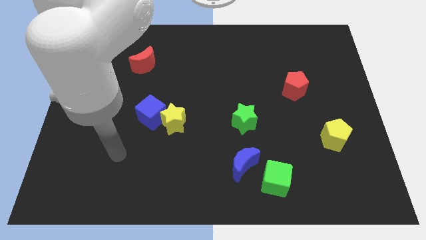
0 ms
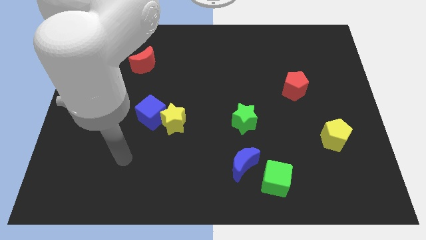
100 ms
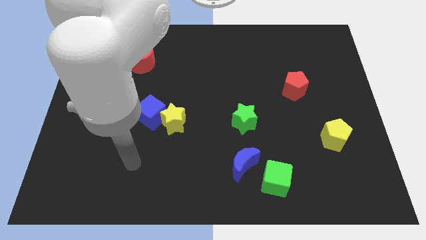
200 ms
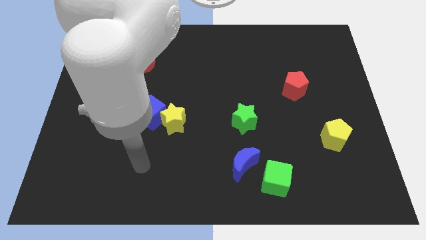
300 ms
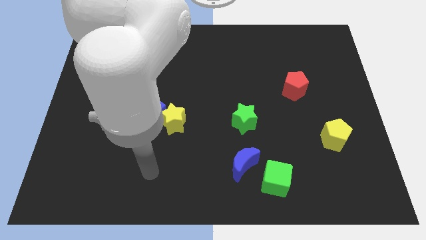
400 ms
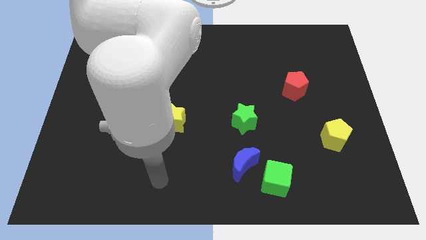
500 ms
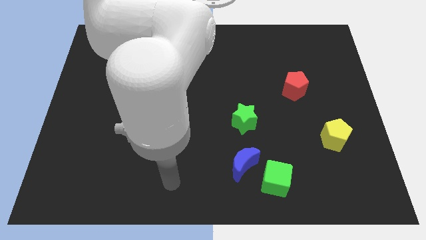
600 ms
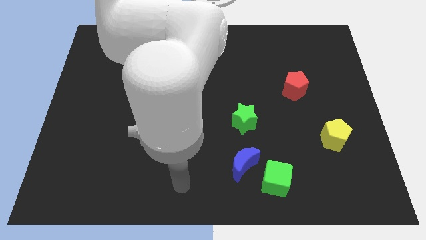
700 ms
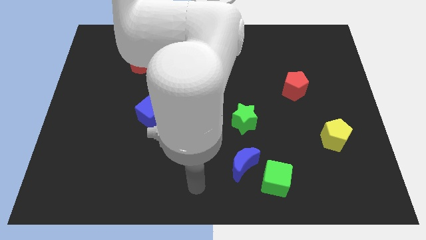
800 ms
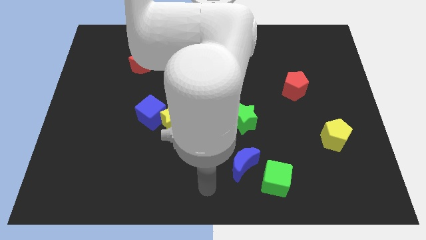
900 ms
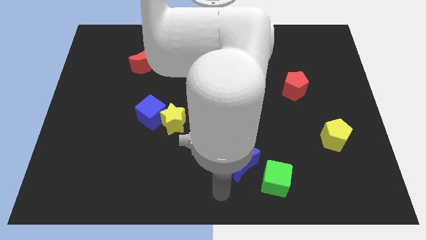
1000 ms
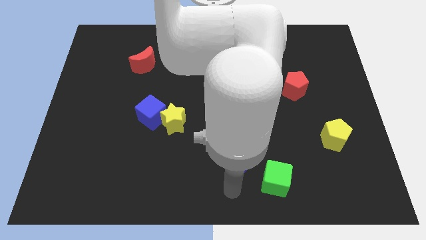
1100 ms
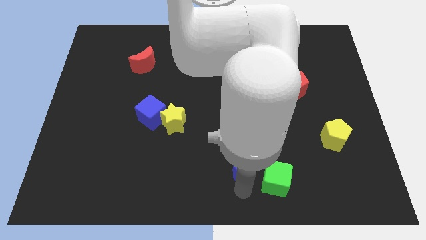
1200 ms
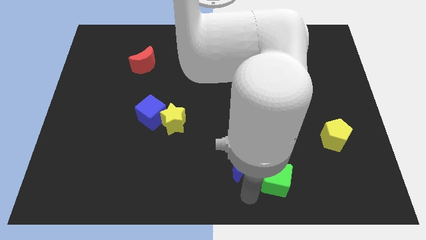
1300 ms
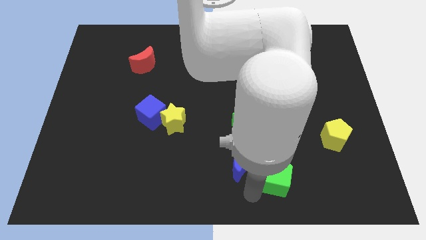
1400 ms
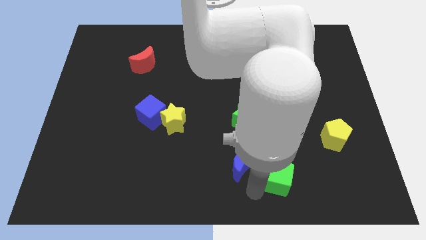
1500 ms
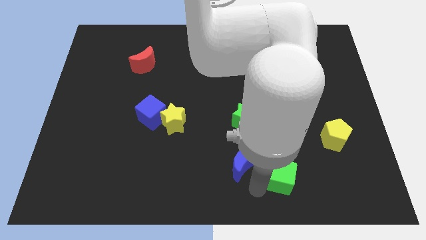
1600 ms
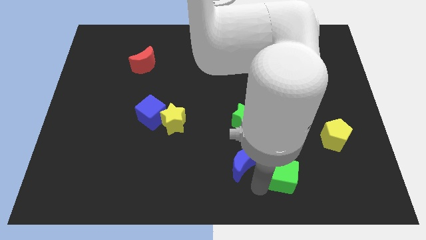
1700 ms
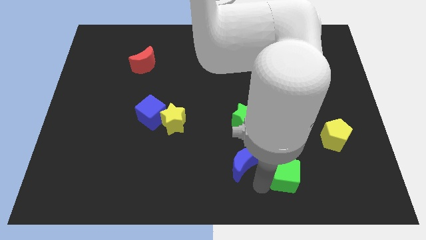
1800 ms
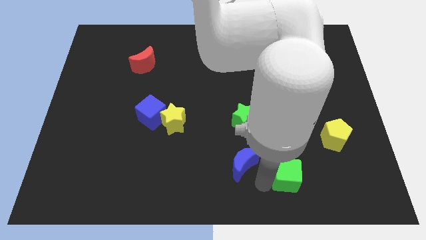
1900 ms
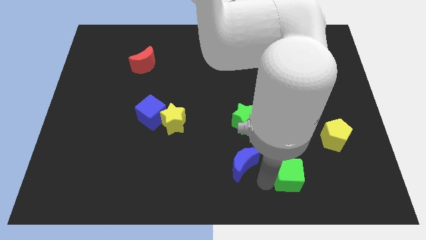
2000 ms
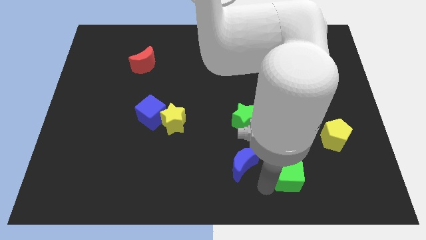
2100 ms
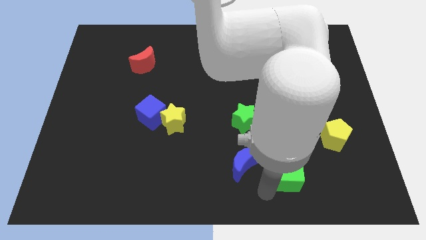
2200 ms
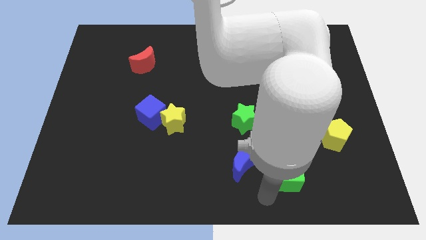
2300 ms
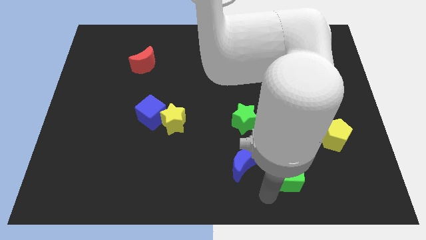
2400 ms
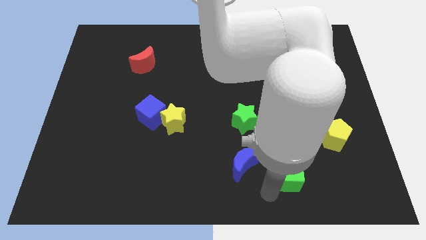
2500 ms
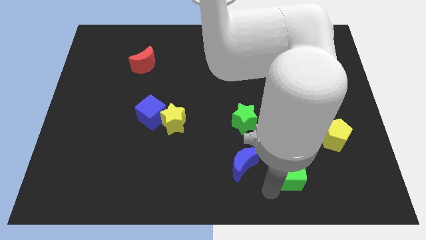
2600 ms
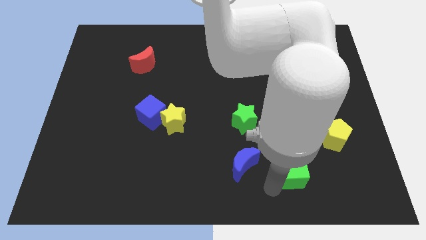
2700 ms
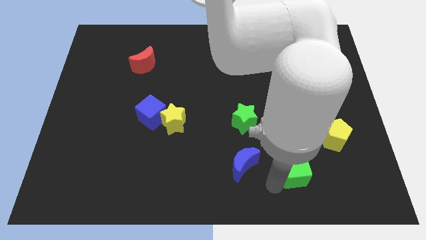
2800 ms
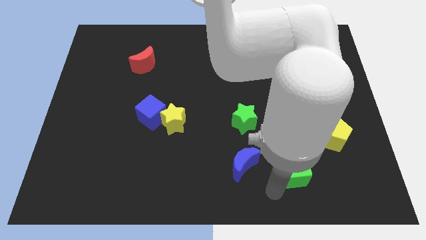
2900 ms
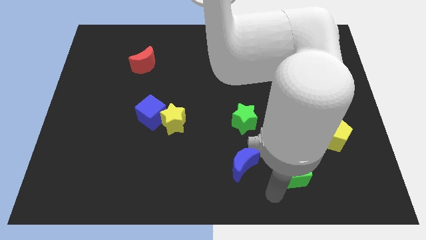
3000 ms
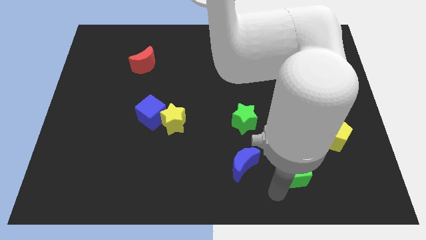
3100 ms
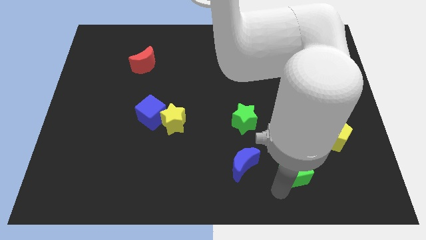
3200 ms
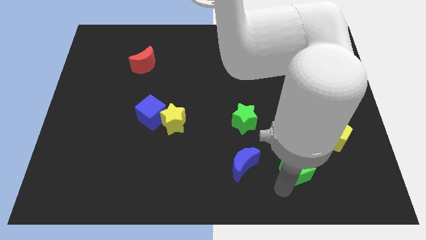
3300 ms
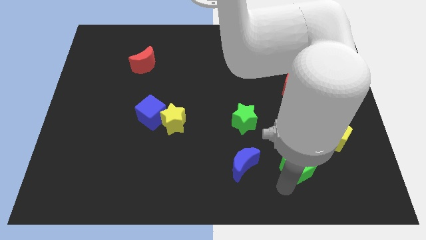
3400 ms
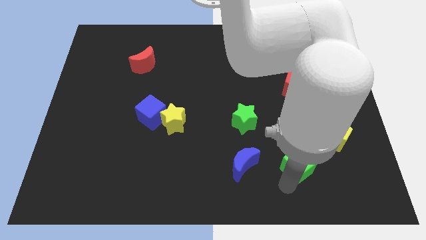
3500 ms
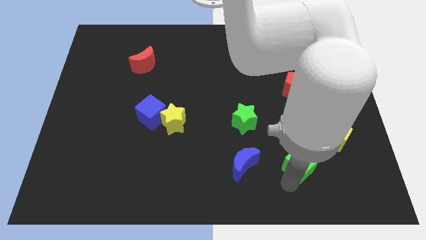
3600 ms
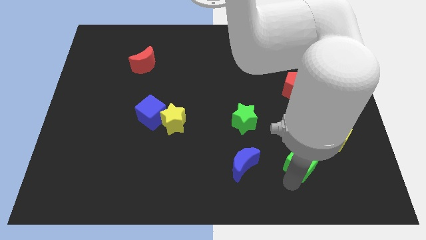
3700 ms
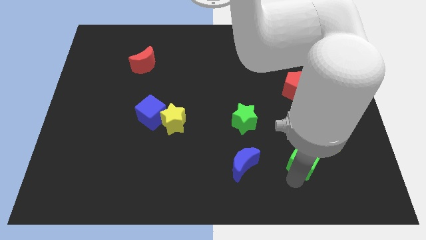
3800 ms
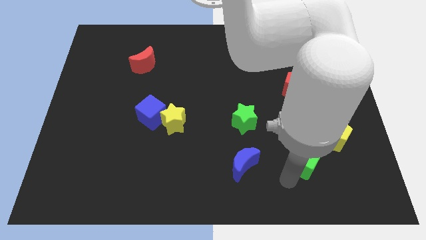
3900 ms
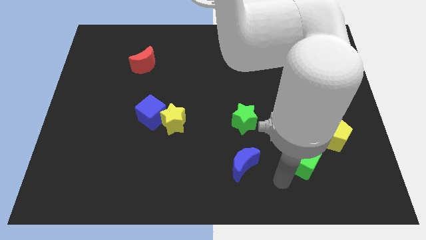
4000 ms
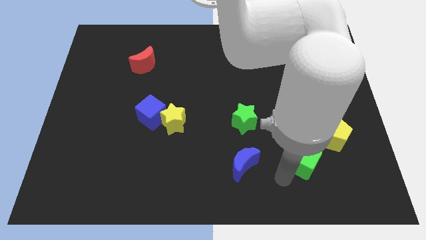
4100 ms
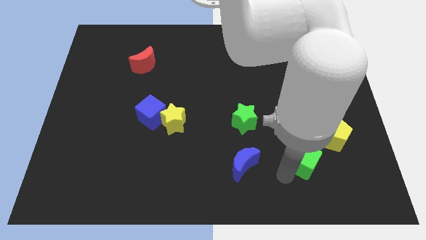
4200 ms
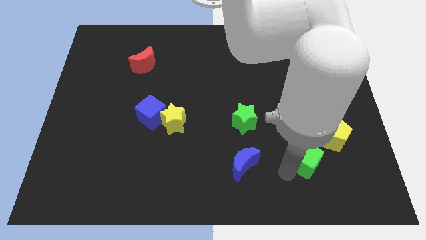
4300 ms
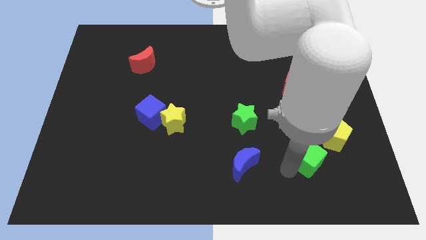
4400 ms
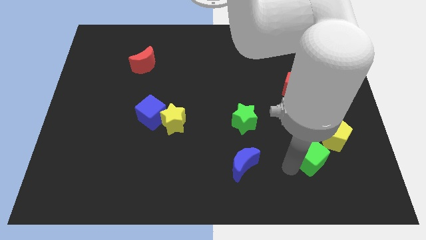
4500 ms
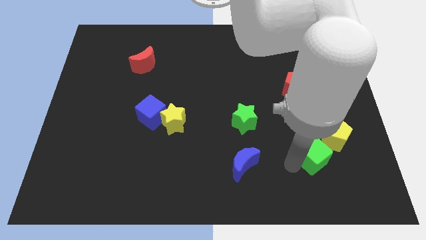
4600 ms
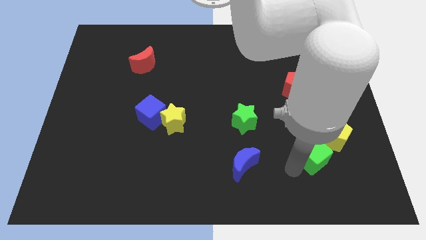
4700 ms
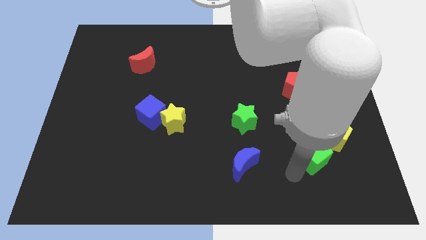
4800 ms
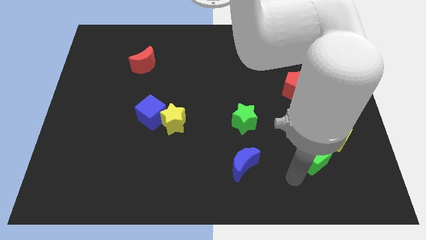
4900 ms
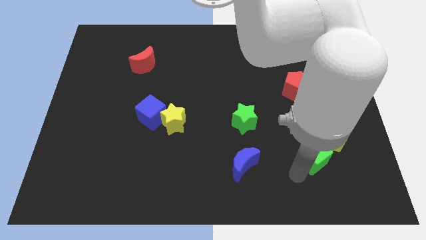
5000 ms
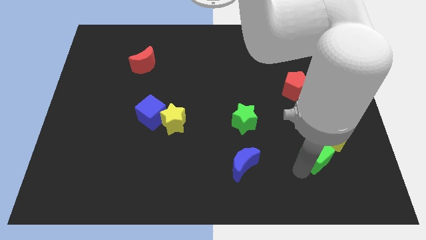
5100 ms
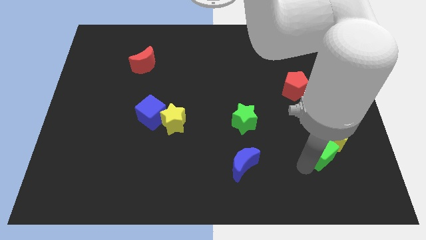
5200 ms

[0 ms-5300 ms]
put the green cube next to the yellow pentagon

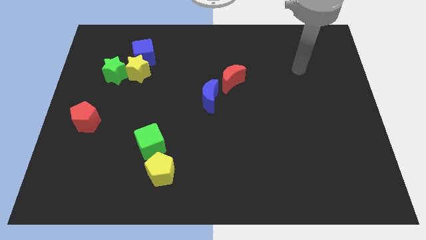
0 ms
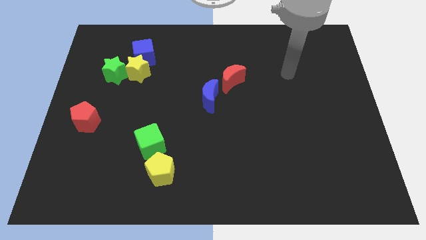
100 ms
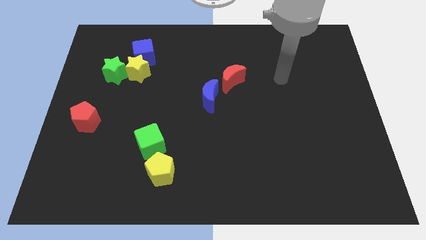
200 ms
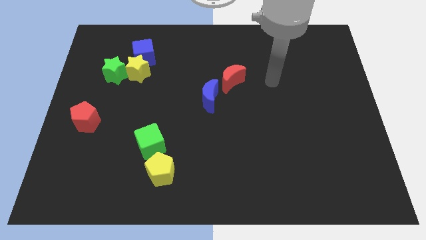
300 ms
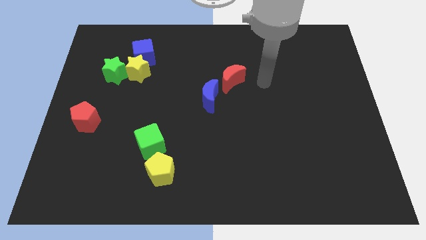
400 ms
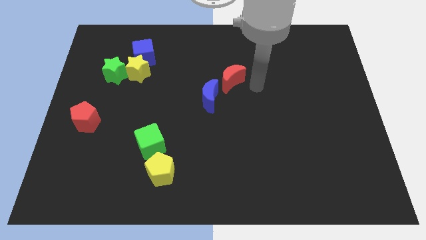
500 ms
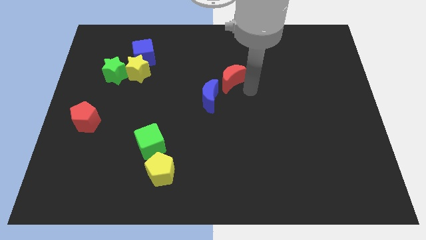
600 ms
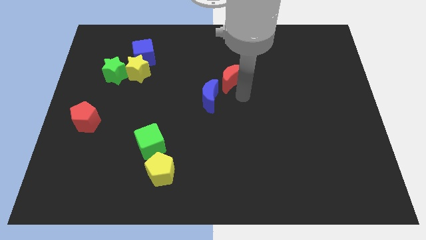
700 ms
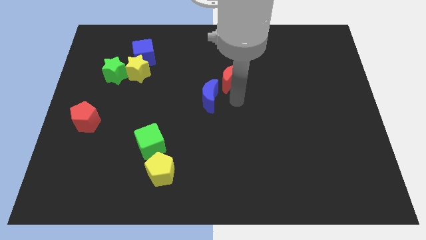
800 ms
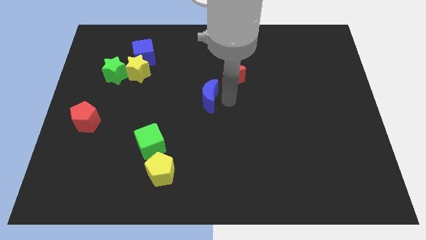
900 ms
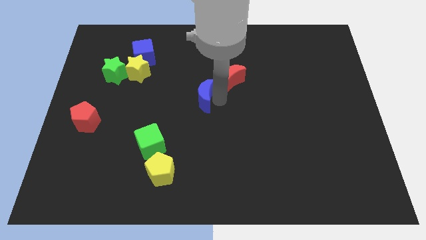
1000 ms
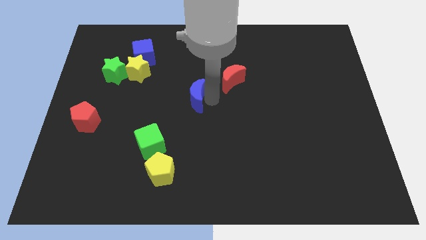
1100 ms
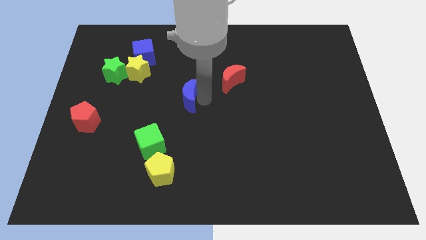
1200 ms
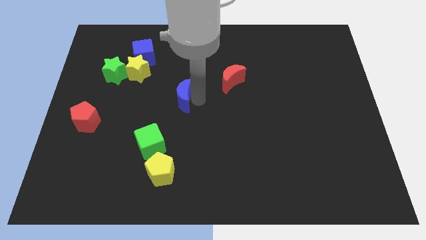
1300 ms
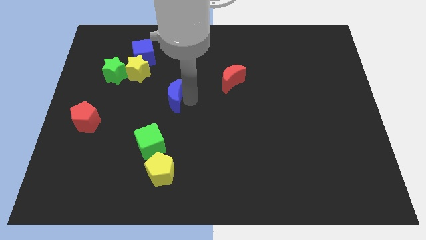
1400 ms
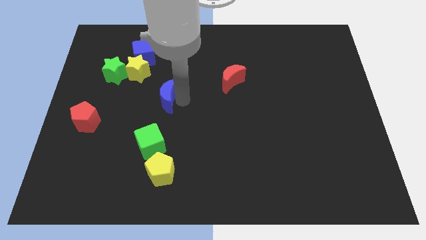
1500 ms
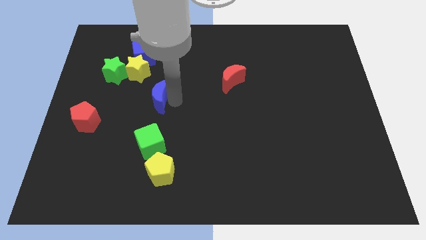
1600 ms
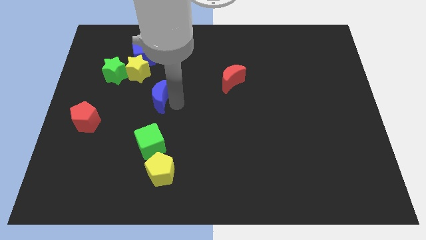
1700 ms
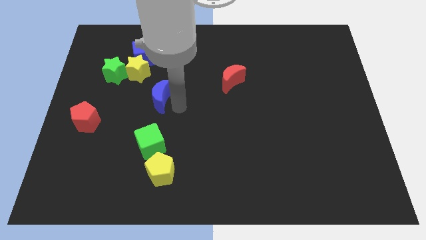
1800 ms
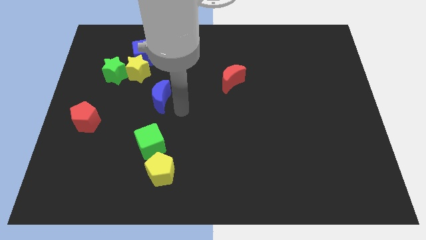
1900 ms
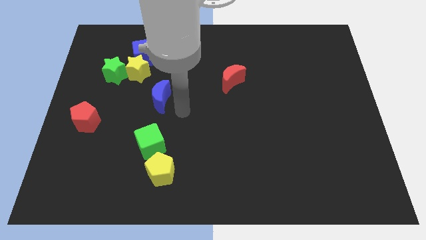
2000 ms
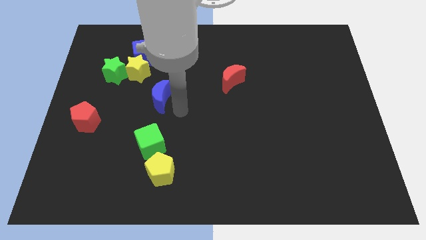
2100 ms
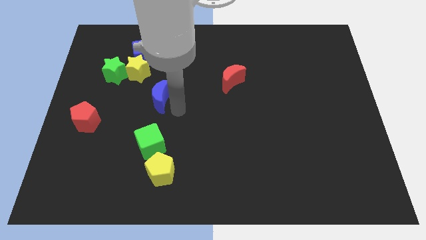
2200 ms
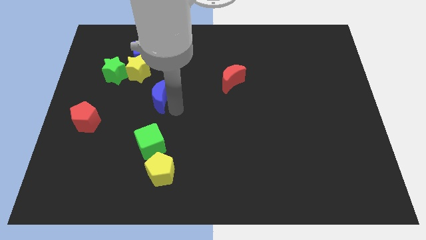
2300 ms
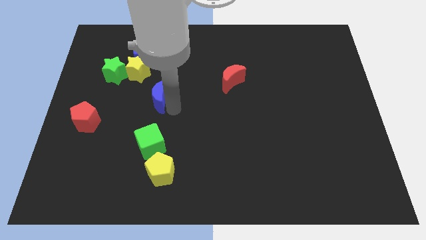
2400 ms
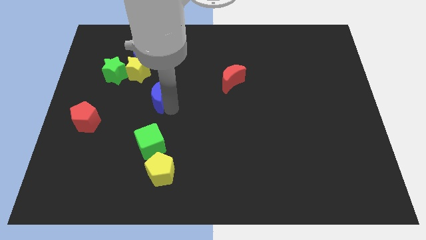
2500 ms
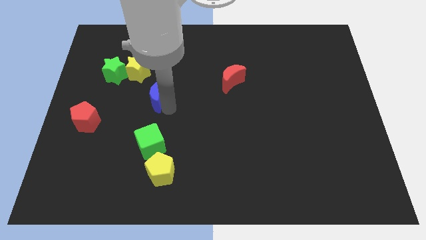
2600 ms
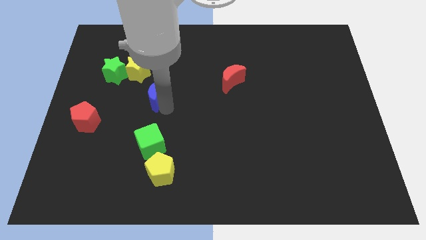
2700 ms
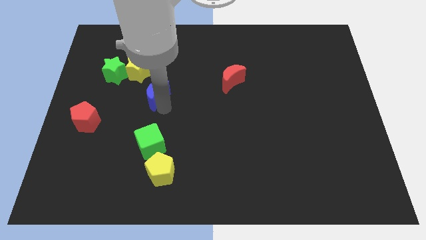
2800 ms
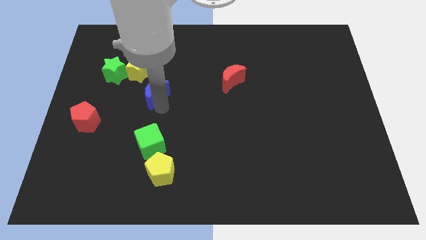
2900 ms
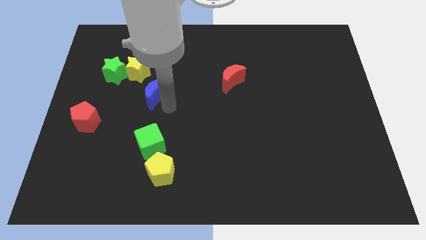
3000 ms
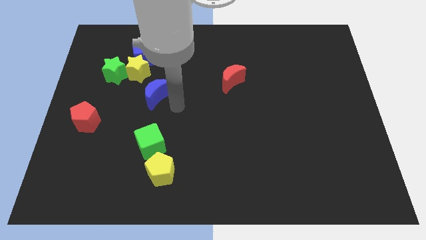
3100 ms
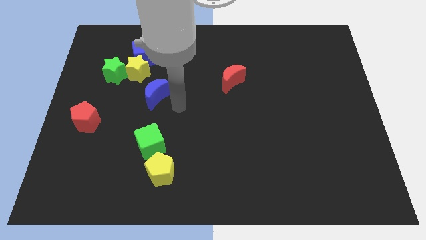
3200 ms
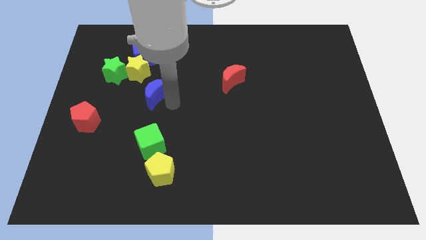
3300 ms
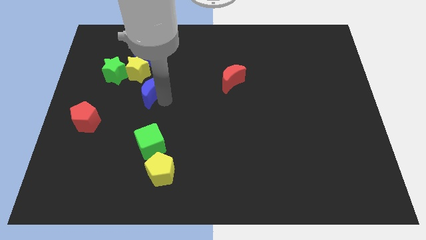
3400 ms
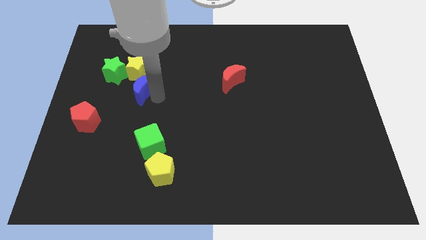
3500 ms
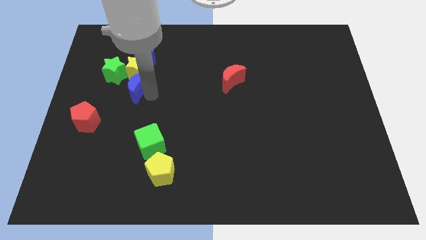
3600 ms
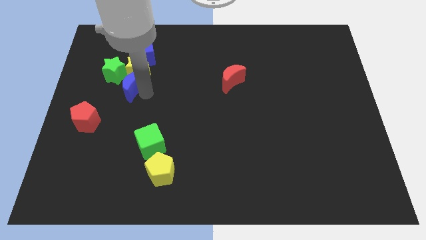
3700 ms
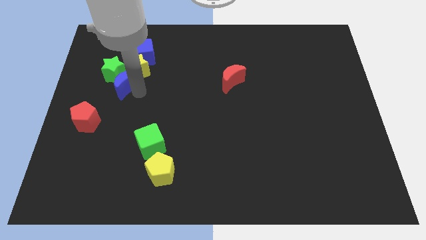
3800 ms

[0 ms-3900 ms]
move the blue moon to the green star
